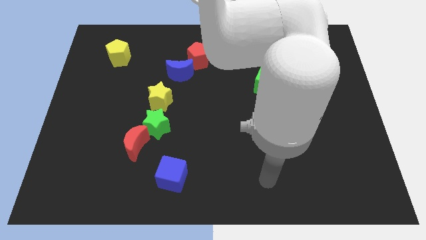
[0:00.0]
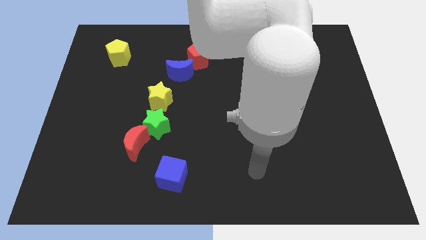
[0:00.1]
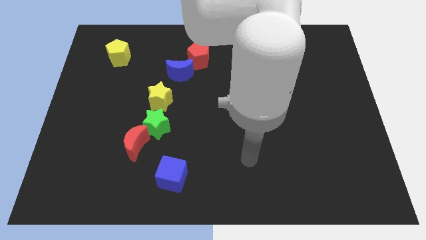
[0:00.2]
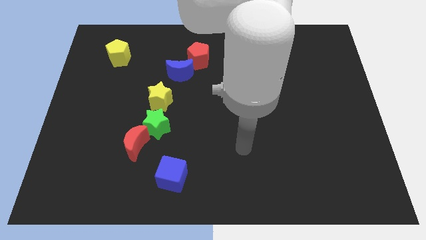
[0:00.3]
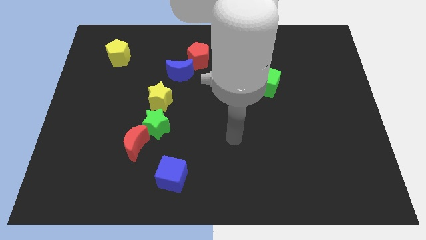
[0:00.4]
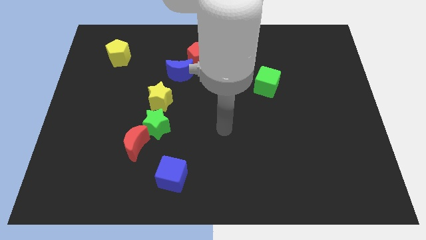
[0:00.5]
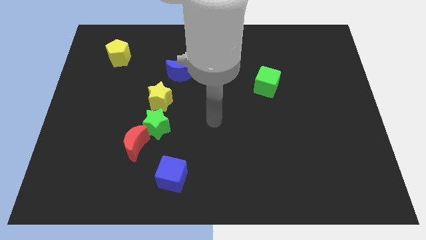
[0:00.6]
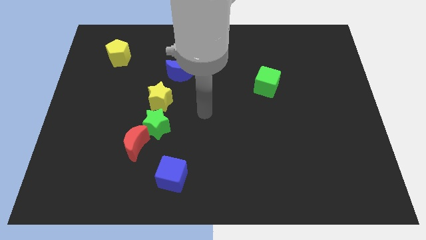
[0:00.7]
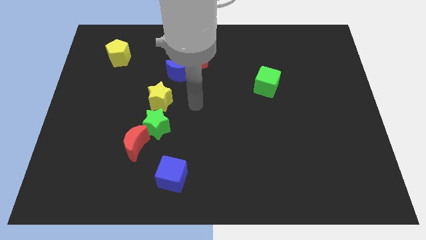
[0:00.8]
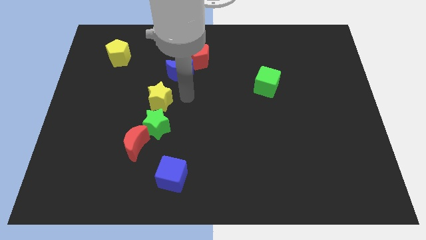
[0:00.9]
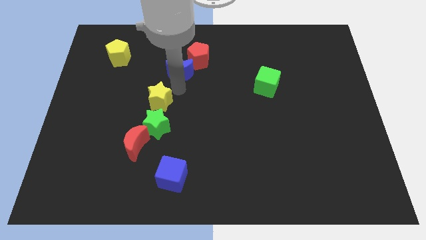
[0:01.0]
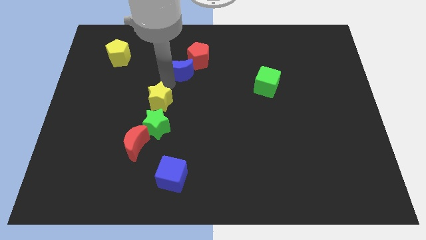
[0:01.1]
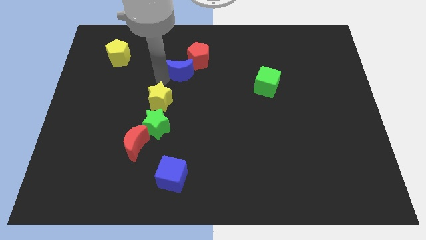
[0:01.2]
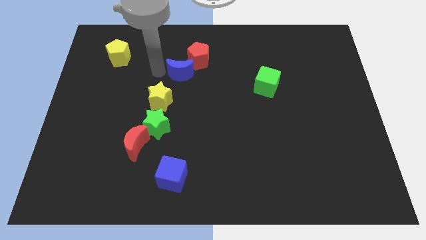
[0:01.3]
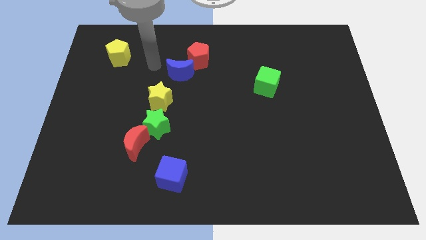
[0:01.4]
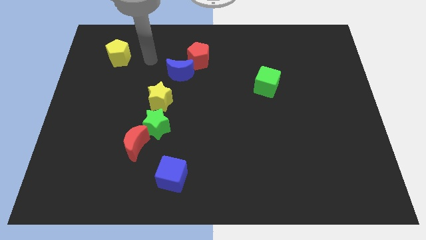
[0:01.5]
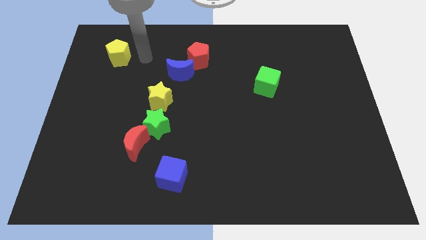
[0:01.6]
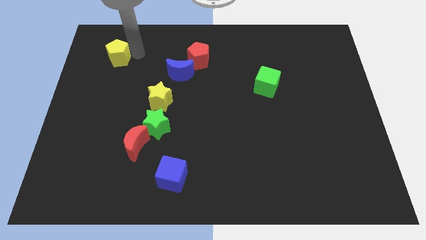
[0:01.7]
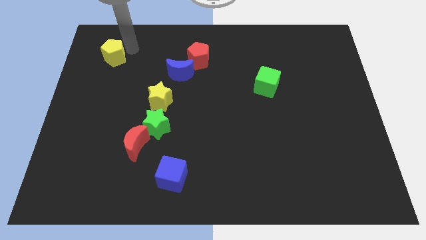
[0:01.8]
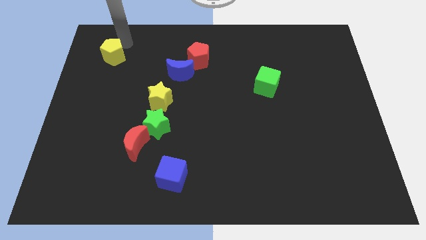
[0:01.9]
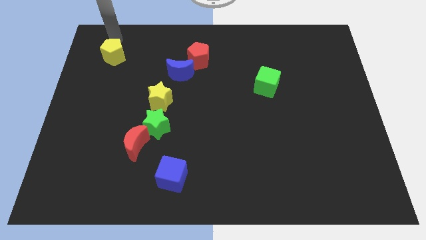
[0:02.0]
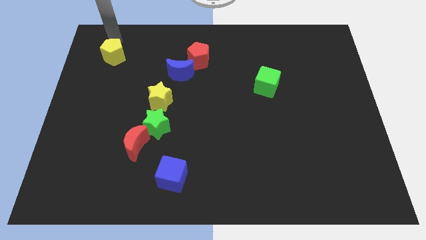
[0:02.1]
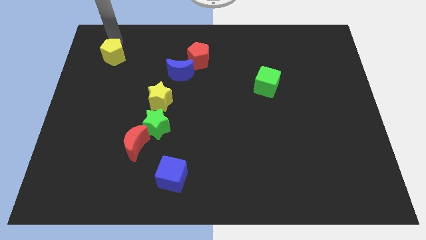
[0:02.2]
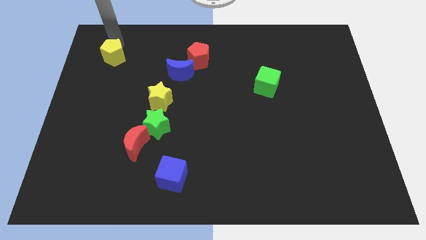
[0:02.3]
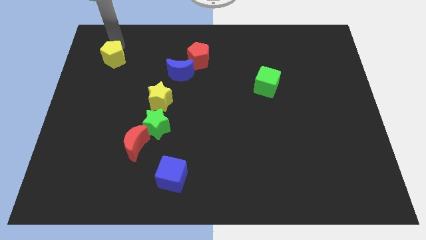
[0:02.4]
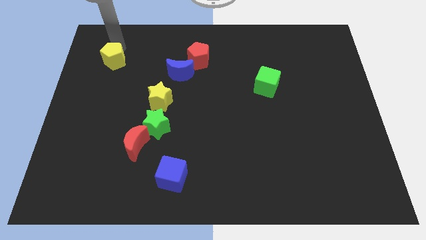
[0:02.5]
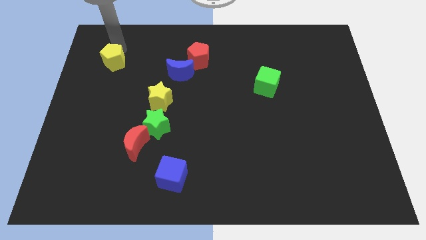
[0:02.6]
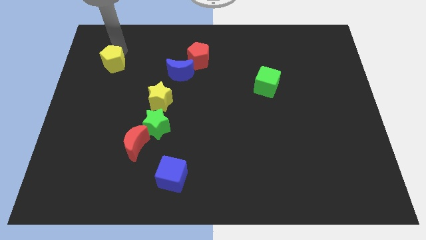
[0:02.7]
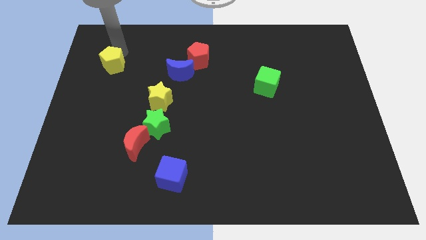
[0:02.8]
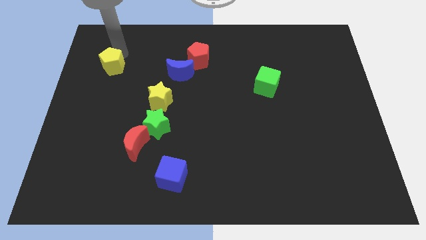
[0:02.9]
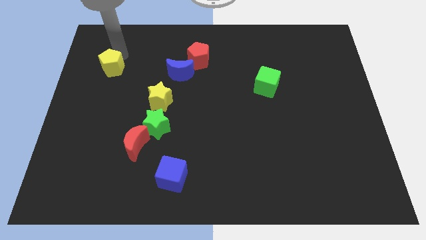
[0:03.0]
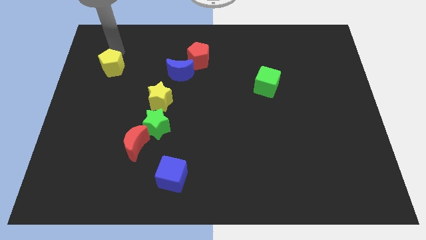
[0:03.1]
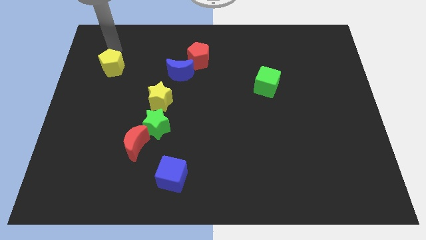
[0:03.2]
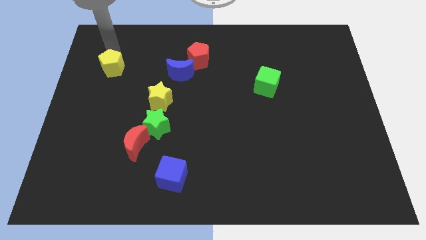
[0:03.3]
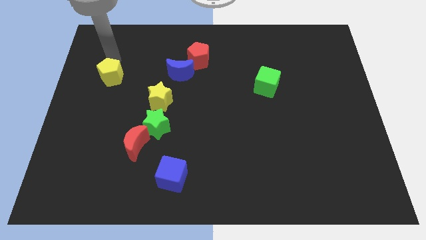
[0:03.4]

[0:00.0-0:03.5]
push the yellow pentagon slightly downwards

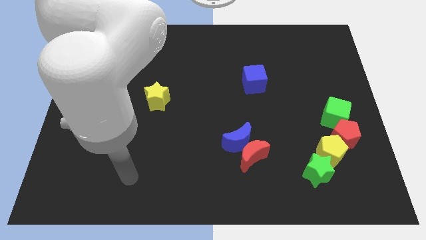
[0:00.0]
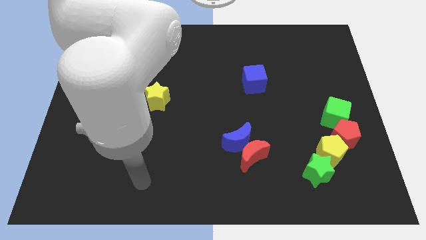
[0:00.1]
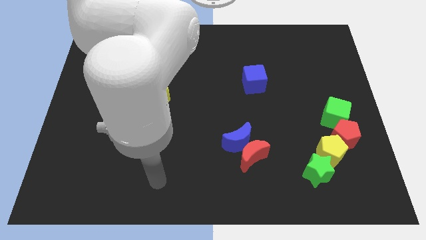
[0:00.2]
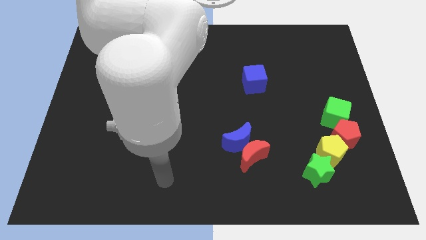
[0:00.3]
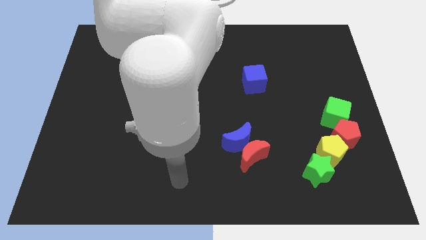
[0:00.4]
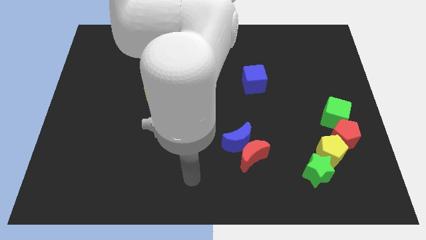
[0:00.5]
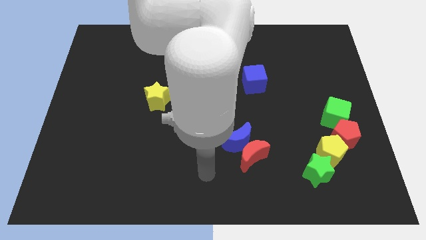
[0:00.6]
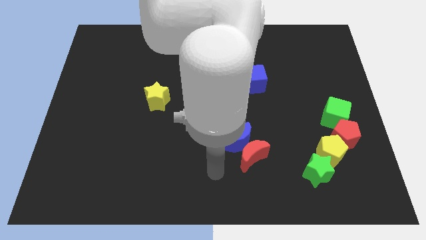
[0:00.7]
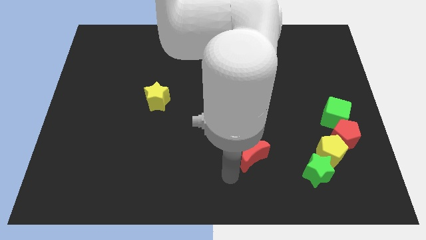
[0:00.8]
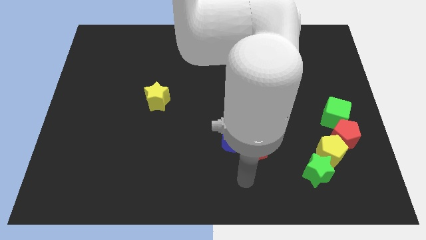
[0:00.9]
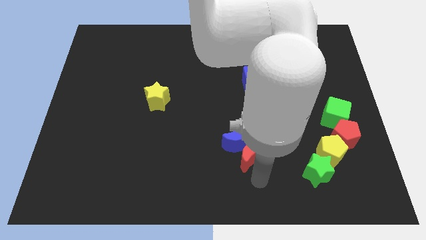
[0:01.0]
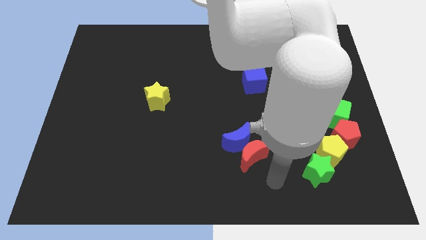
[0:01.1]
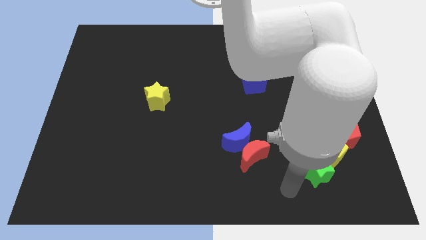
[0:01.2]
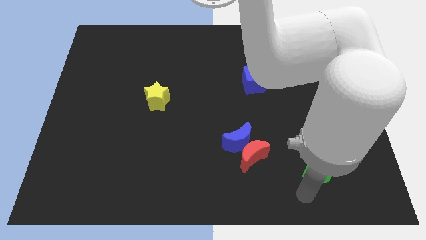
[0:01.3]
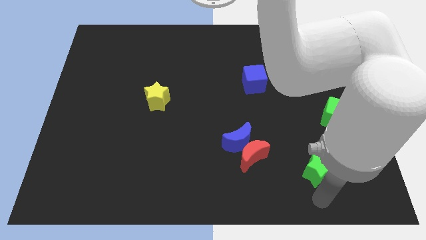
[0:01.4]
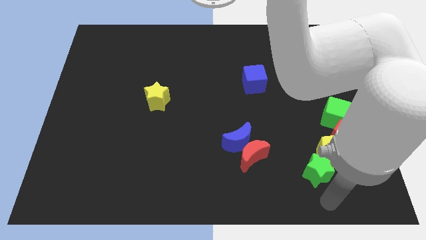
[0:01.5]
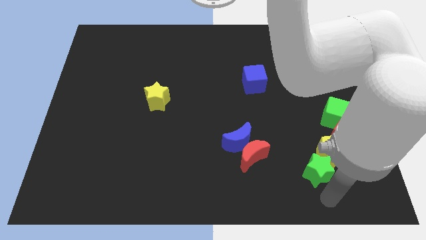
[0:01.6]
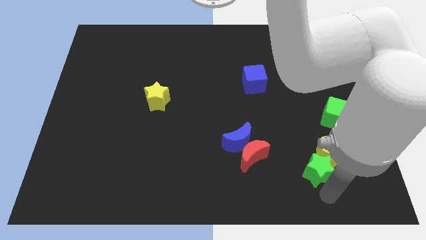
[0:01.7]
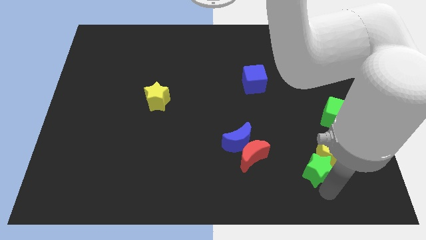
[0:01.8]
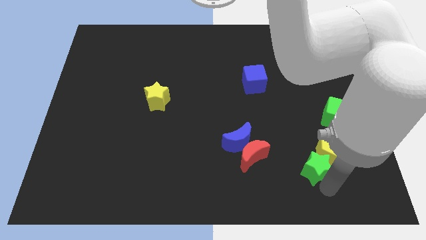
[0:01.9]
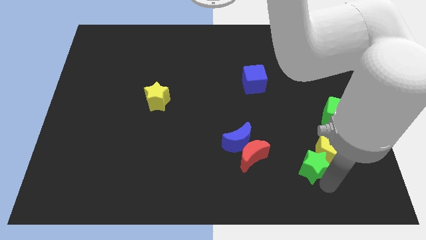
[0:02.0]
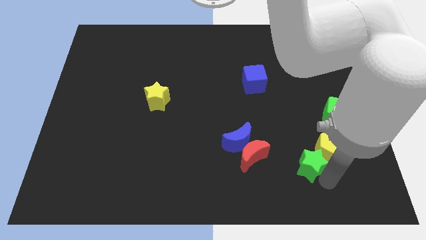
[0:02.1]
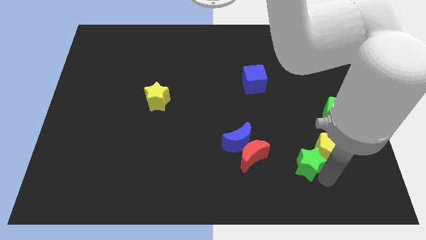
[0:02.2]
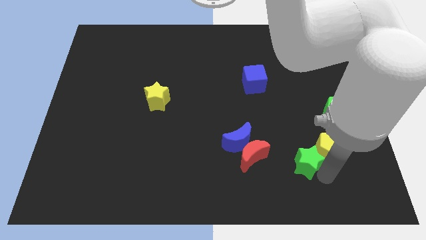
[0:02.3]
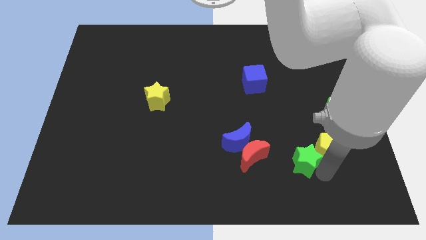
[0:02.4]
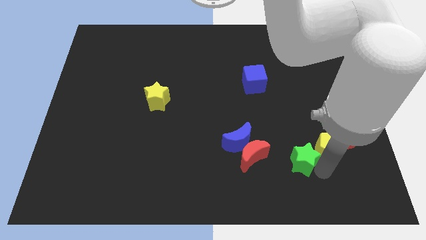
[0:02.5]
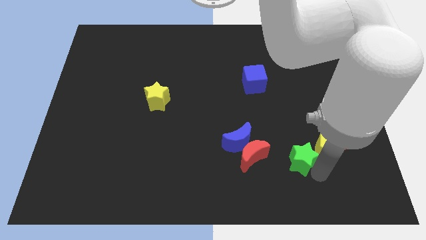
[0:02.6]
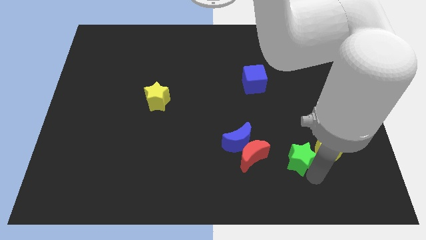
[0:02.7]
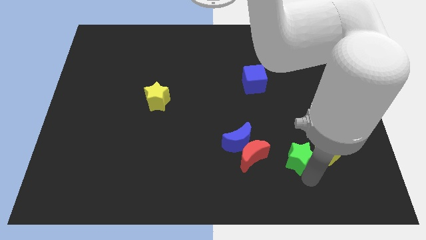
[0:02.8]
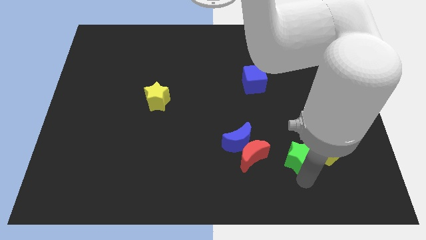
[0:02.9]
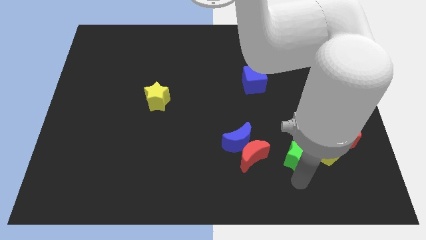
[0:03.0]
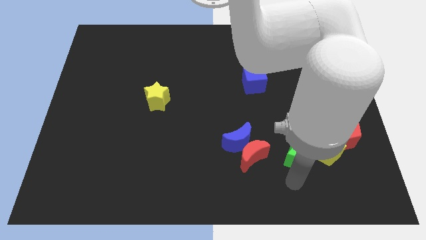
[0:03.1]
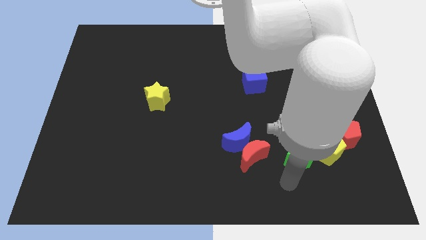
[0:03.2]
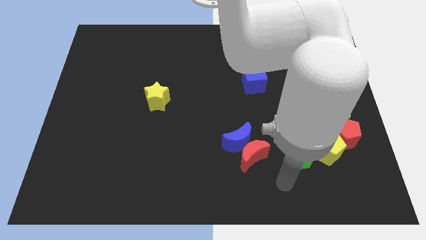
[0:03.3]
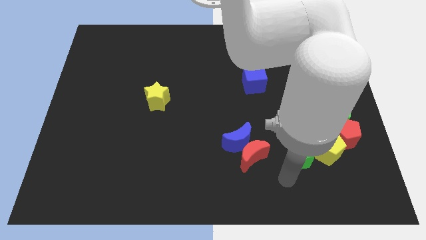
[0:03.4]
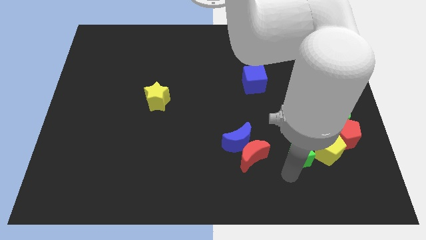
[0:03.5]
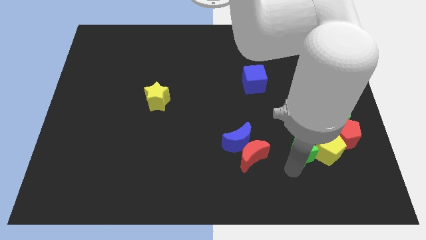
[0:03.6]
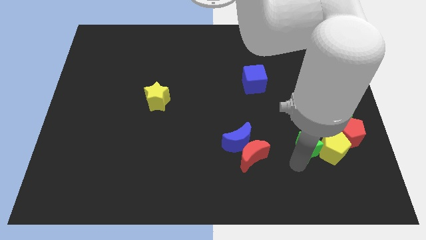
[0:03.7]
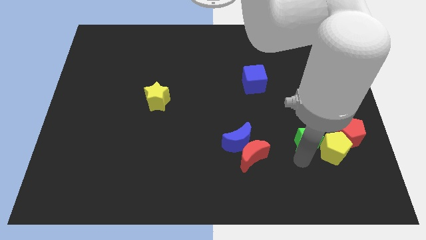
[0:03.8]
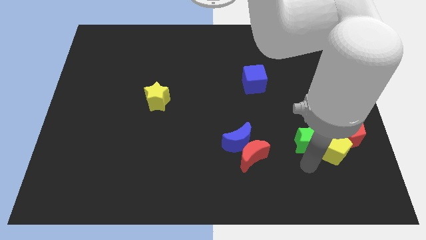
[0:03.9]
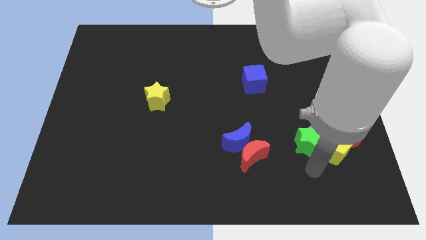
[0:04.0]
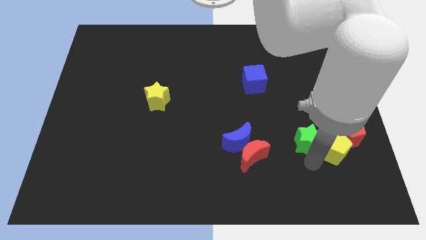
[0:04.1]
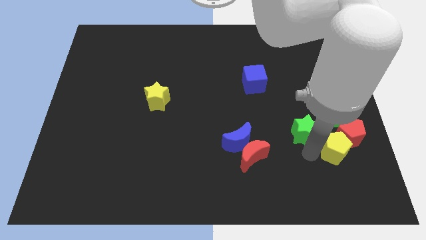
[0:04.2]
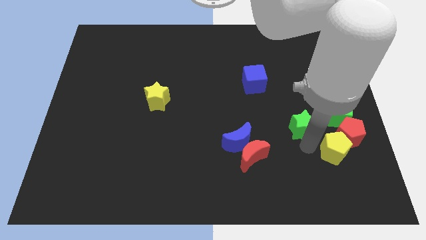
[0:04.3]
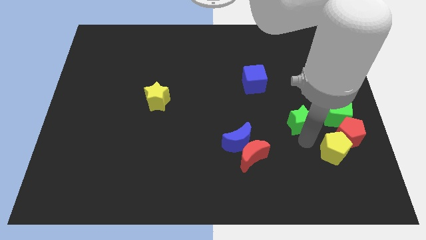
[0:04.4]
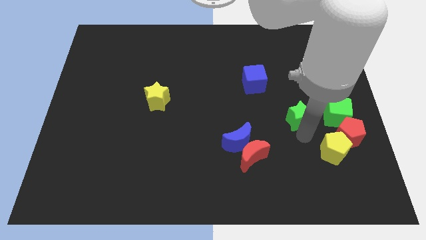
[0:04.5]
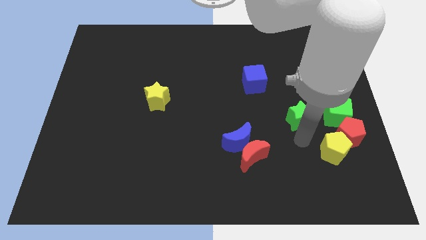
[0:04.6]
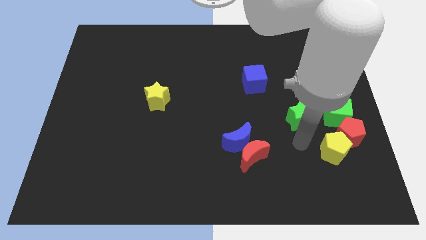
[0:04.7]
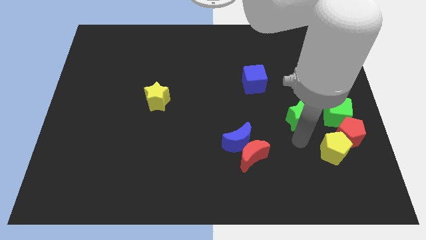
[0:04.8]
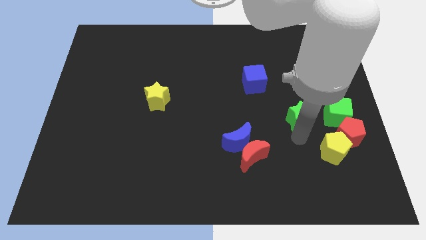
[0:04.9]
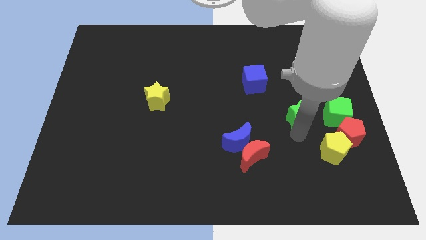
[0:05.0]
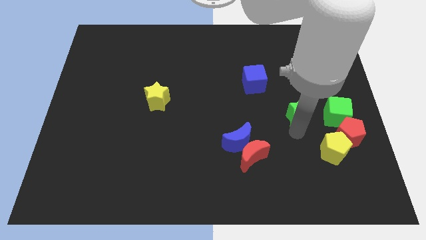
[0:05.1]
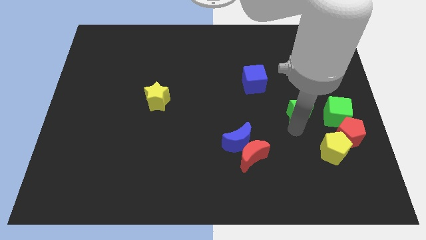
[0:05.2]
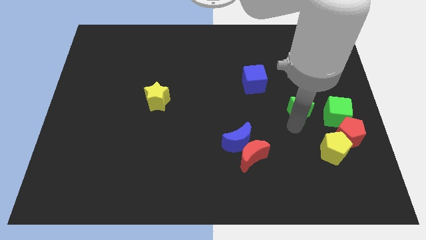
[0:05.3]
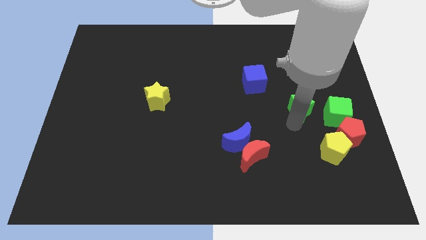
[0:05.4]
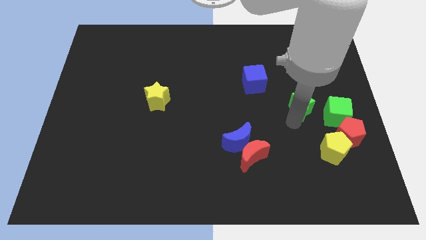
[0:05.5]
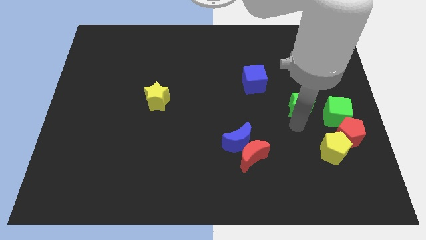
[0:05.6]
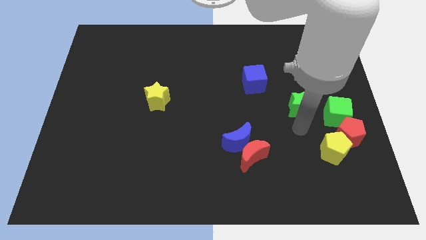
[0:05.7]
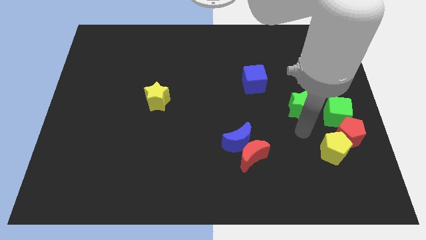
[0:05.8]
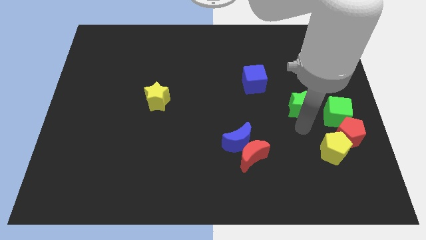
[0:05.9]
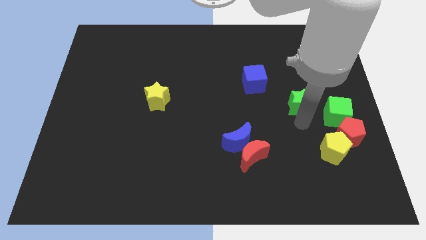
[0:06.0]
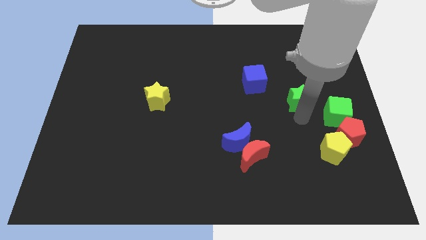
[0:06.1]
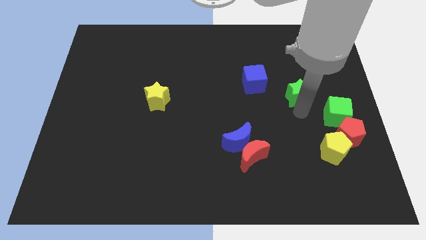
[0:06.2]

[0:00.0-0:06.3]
push the green star up
